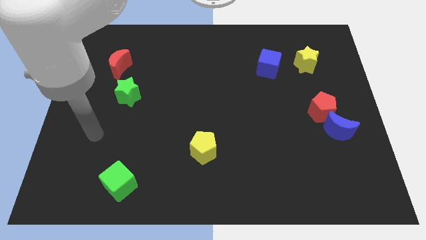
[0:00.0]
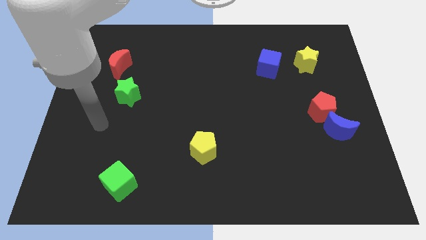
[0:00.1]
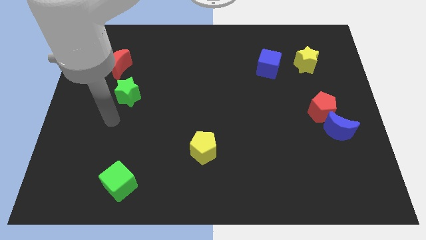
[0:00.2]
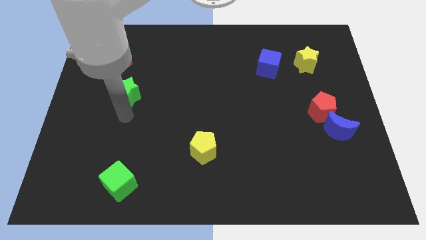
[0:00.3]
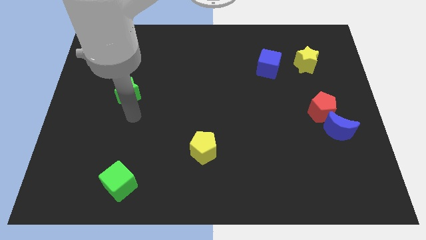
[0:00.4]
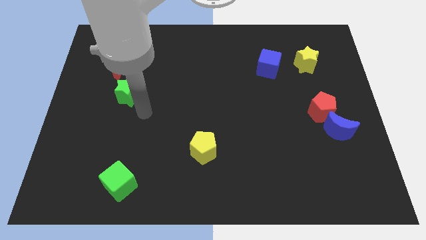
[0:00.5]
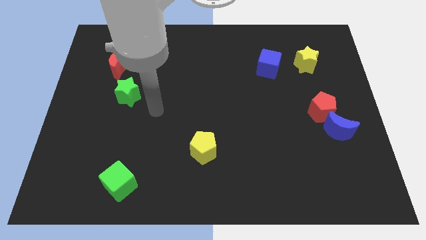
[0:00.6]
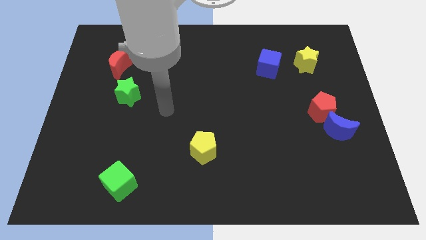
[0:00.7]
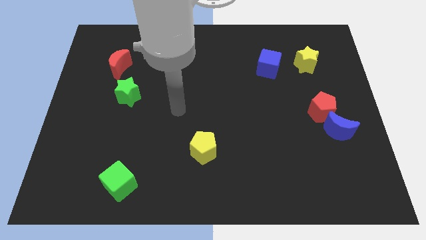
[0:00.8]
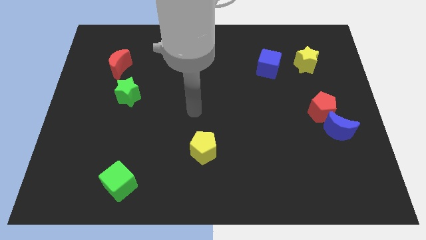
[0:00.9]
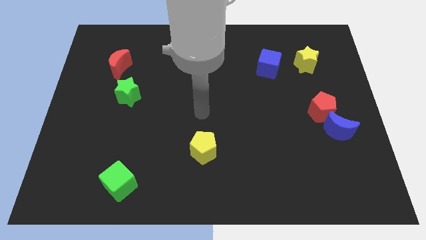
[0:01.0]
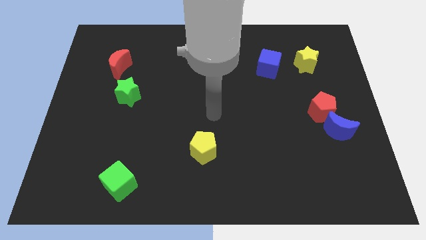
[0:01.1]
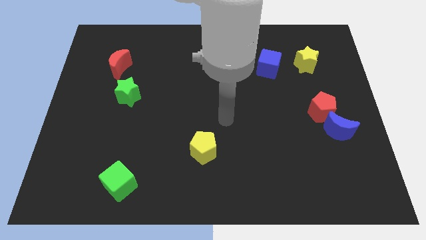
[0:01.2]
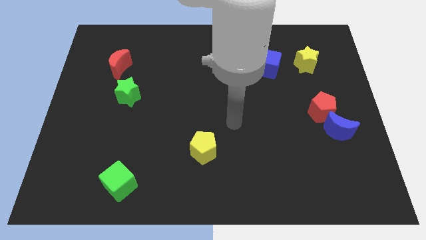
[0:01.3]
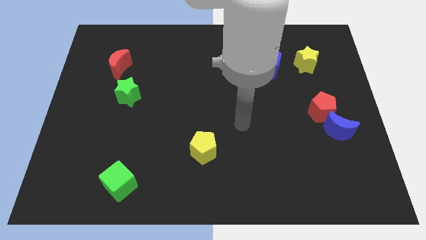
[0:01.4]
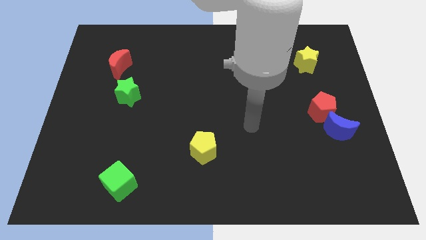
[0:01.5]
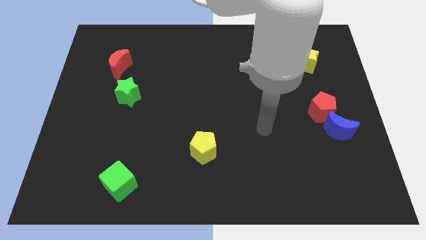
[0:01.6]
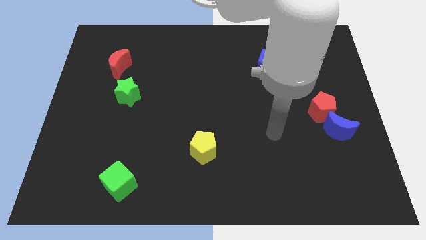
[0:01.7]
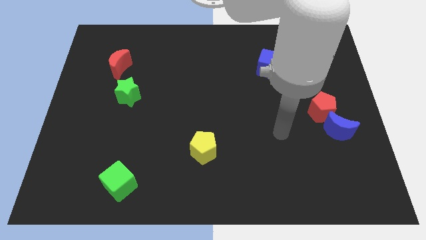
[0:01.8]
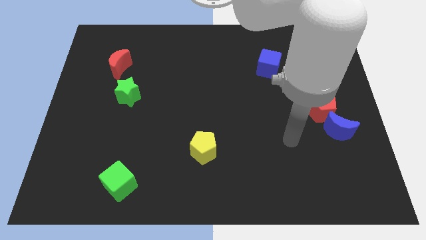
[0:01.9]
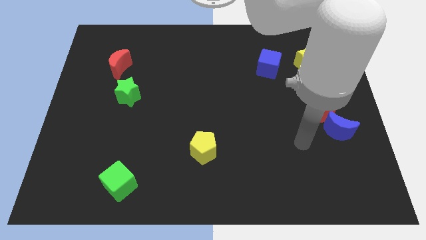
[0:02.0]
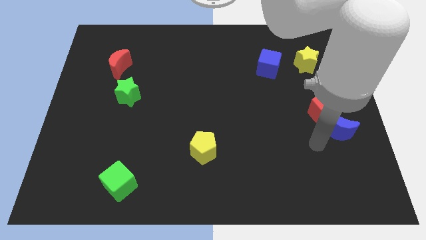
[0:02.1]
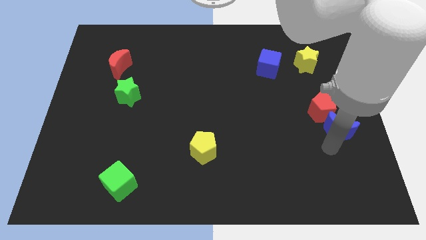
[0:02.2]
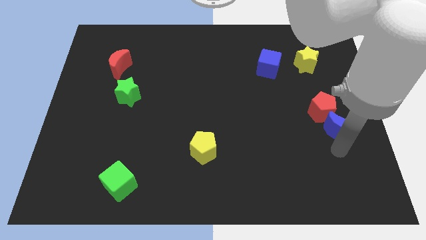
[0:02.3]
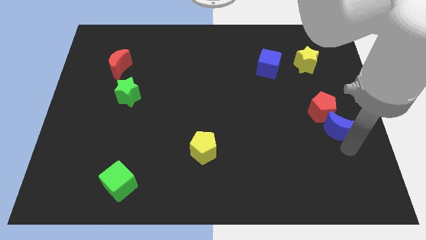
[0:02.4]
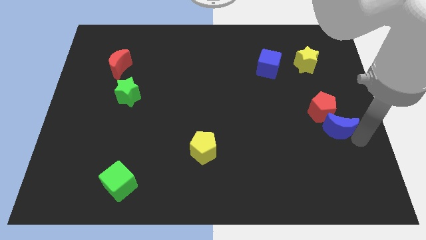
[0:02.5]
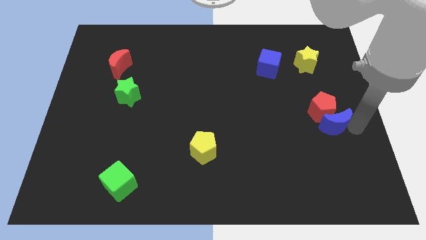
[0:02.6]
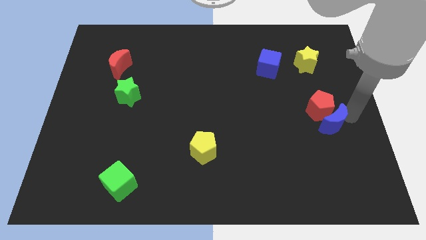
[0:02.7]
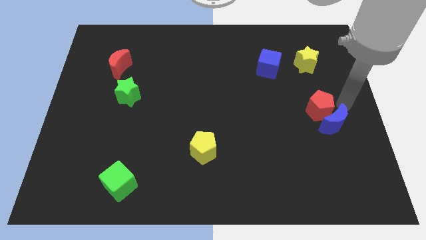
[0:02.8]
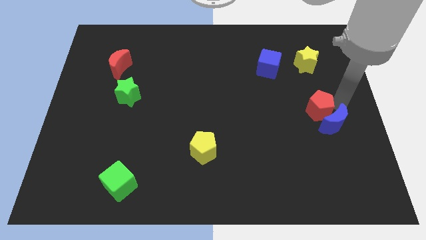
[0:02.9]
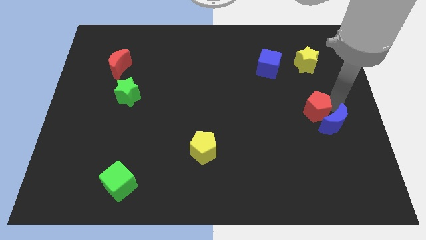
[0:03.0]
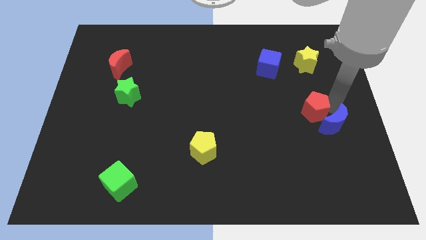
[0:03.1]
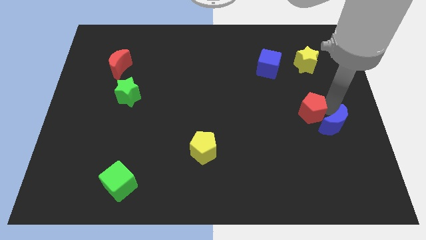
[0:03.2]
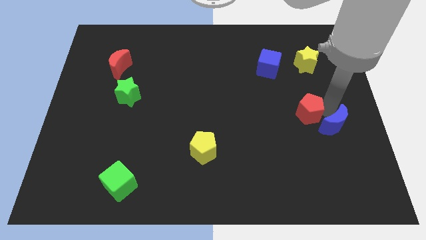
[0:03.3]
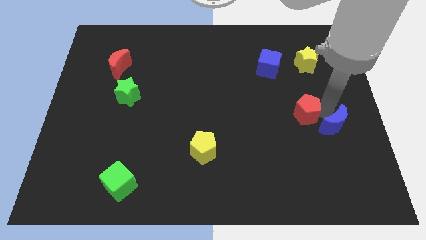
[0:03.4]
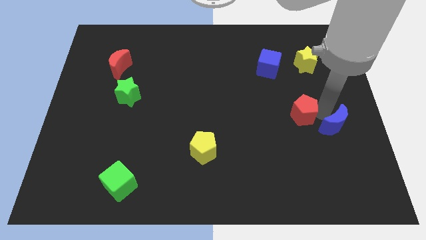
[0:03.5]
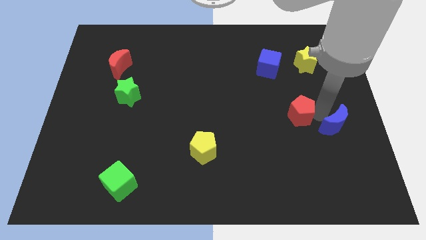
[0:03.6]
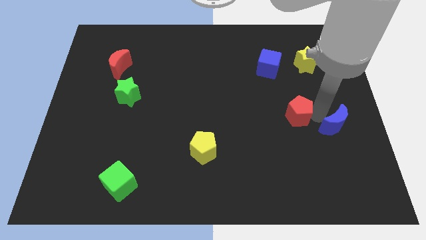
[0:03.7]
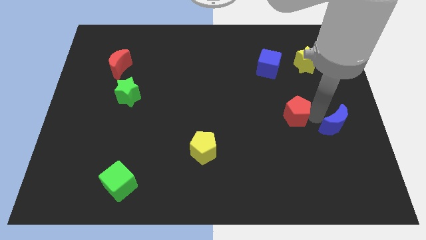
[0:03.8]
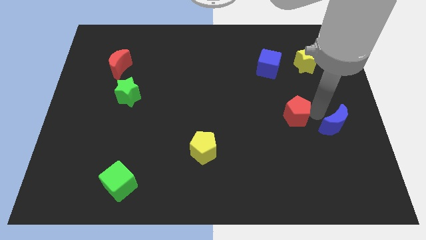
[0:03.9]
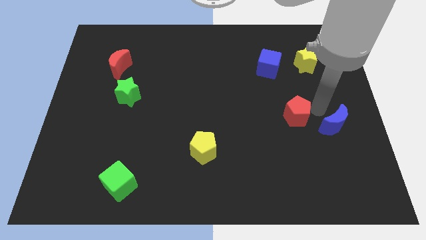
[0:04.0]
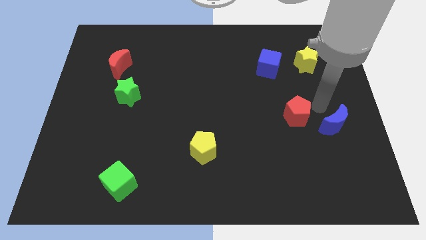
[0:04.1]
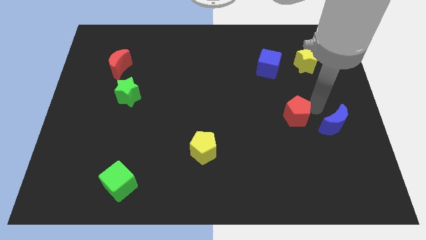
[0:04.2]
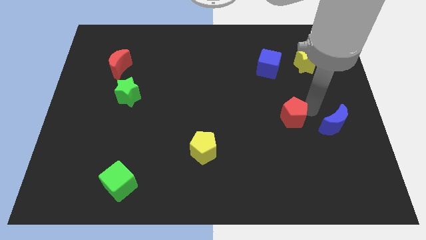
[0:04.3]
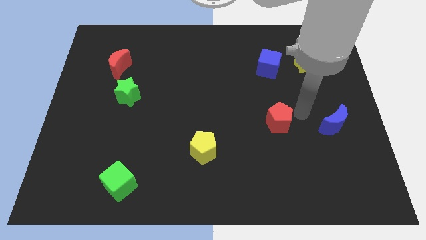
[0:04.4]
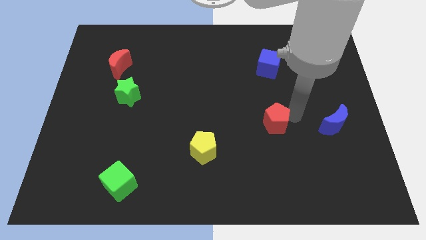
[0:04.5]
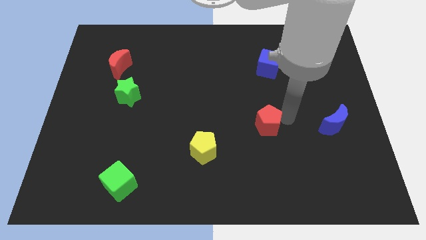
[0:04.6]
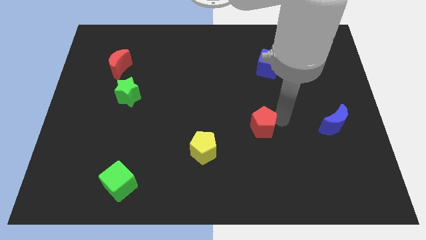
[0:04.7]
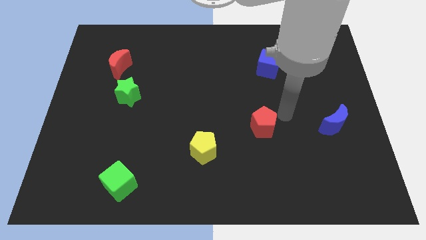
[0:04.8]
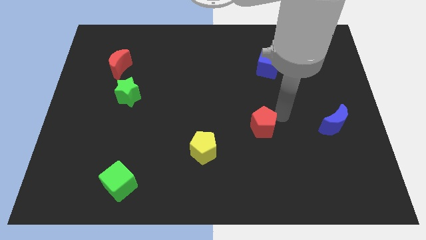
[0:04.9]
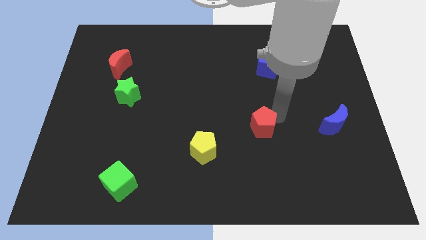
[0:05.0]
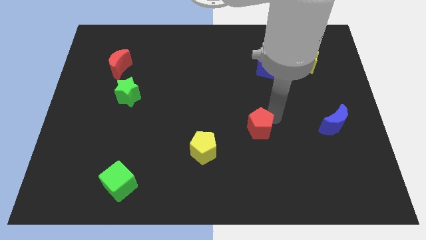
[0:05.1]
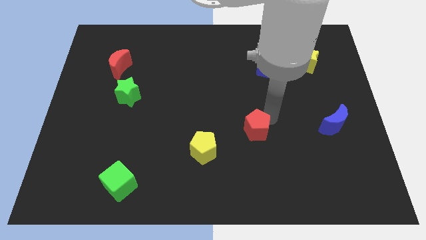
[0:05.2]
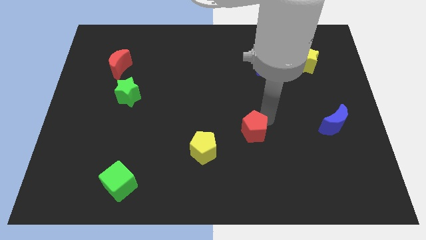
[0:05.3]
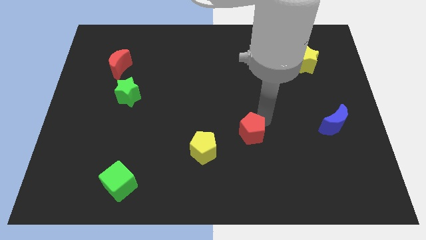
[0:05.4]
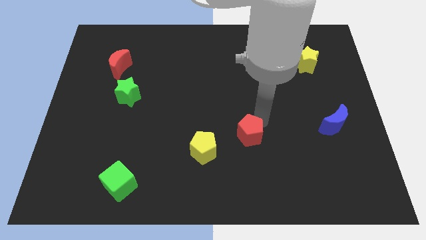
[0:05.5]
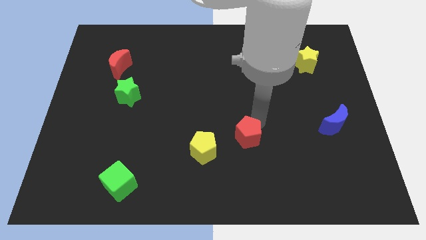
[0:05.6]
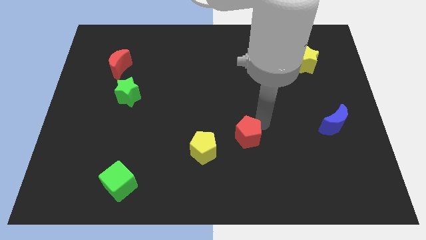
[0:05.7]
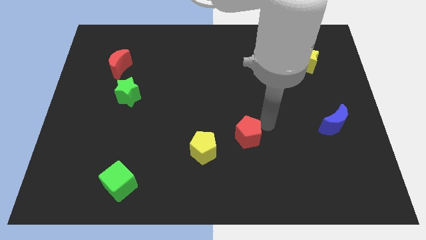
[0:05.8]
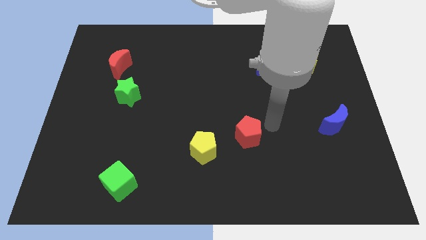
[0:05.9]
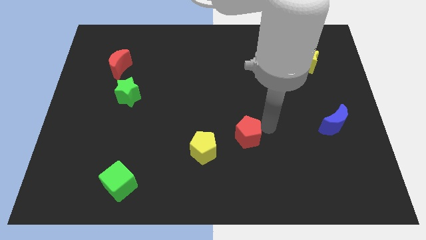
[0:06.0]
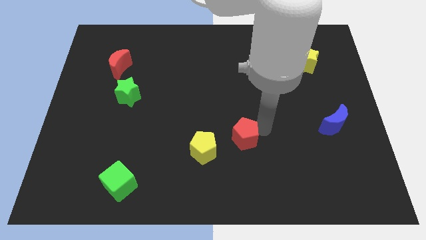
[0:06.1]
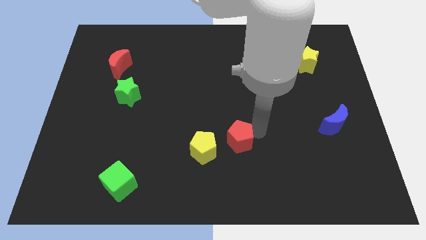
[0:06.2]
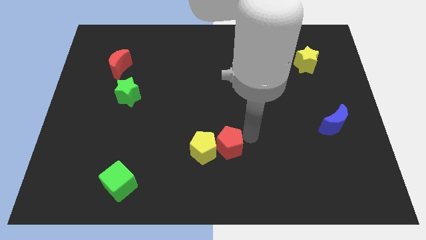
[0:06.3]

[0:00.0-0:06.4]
put the red pentagon to the yellow pentagon

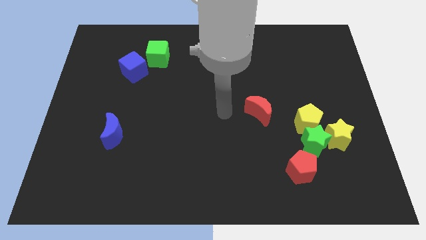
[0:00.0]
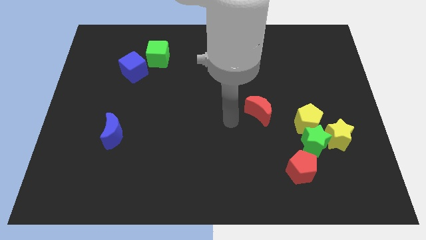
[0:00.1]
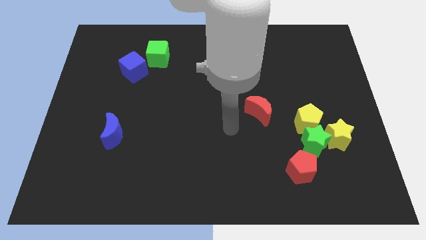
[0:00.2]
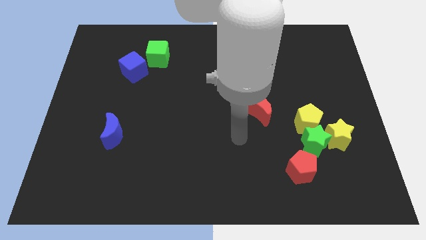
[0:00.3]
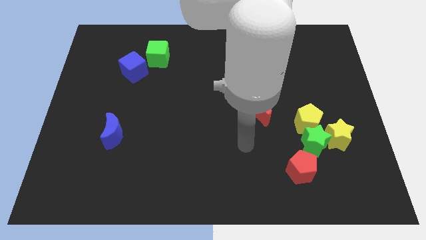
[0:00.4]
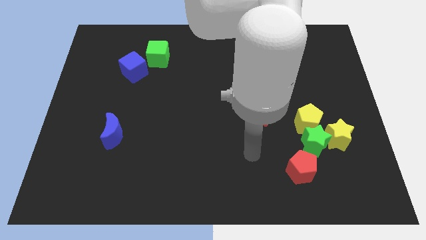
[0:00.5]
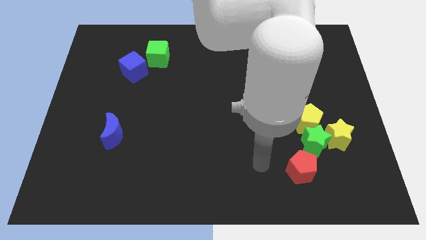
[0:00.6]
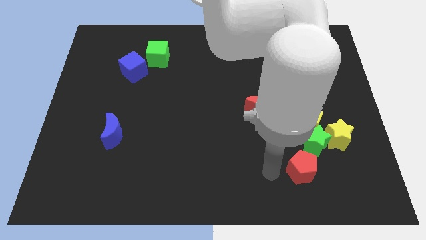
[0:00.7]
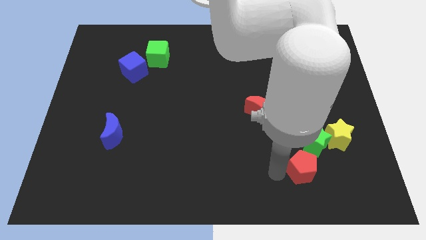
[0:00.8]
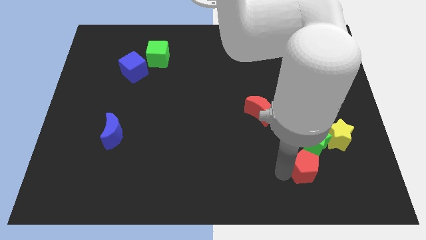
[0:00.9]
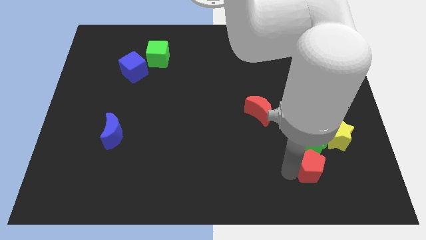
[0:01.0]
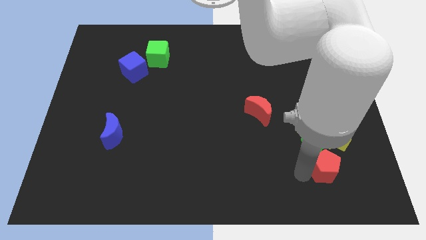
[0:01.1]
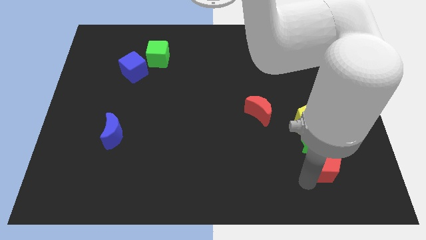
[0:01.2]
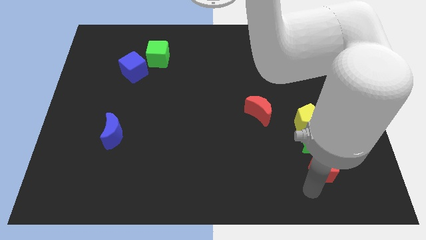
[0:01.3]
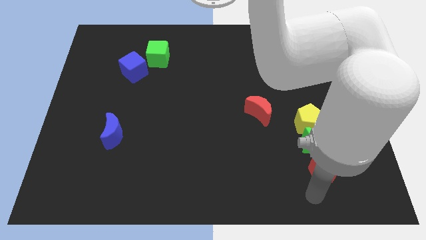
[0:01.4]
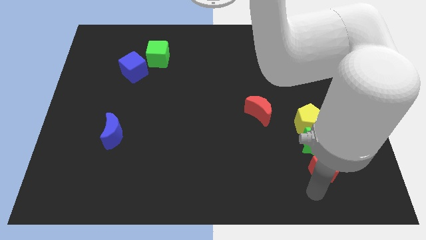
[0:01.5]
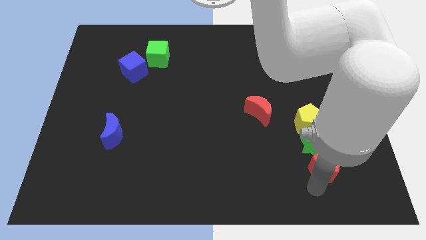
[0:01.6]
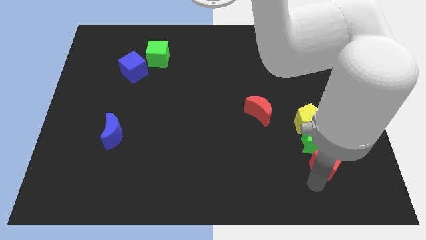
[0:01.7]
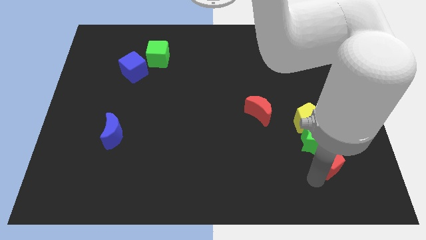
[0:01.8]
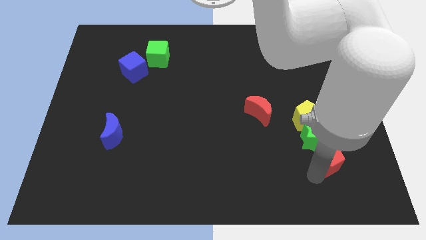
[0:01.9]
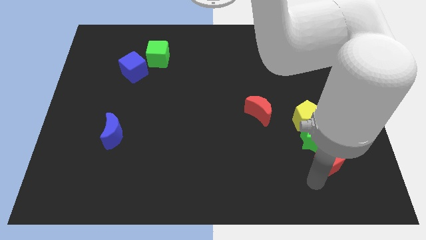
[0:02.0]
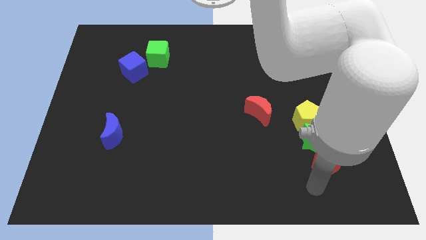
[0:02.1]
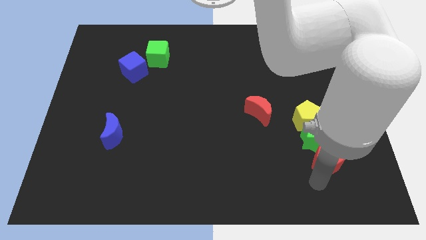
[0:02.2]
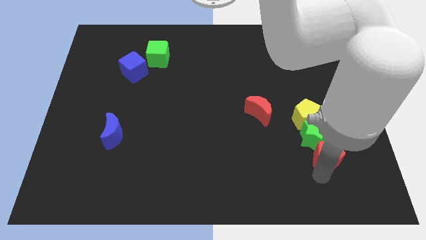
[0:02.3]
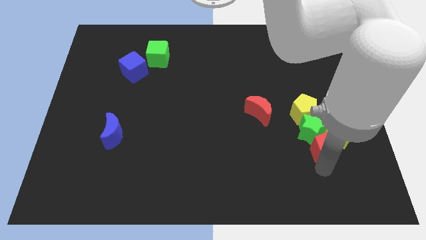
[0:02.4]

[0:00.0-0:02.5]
move the red pentagon towards the yellow star
